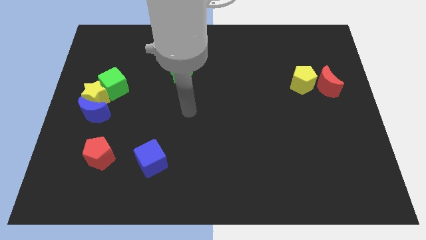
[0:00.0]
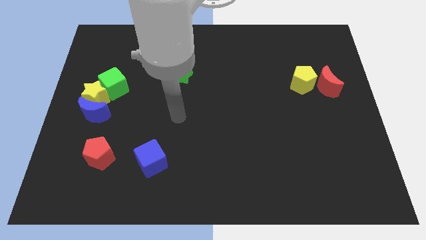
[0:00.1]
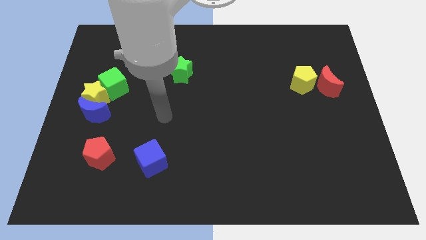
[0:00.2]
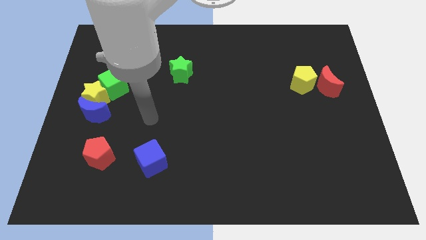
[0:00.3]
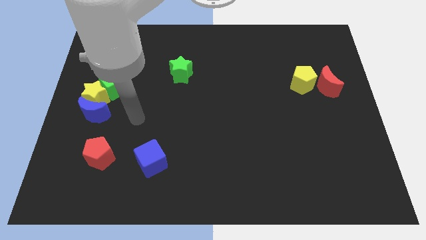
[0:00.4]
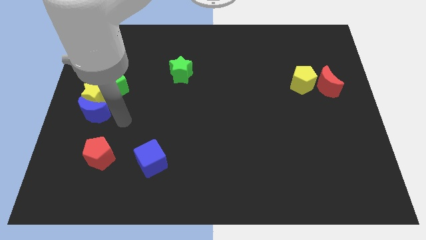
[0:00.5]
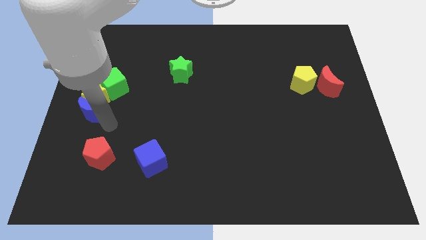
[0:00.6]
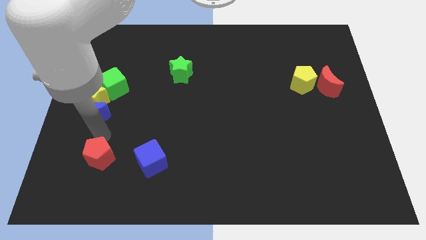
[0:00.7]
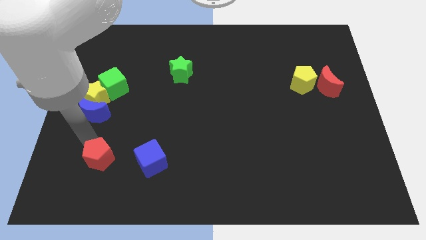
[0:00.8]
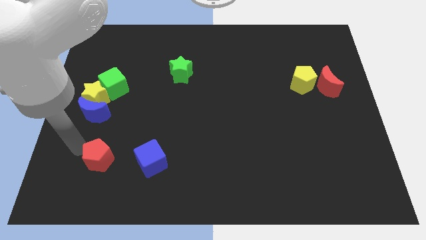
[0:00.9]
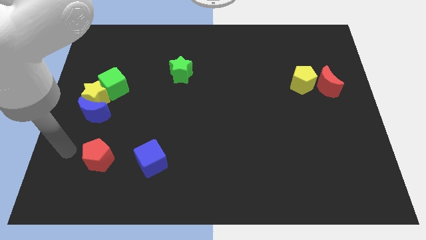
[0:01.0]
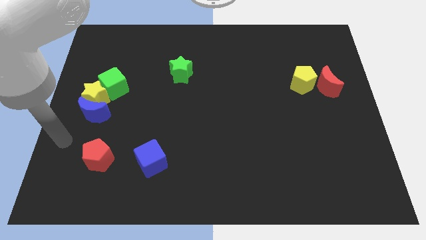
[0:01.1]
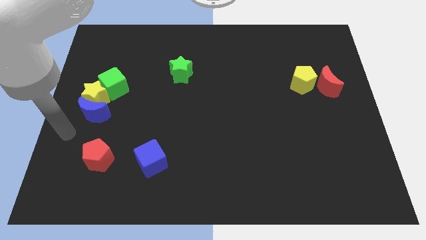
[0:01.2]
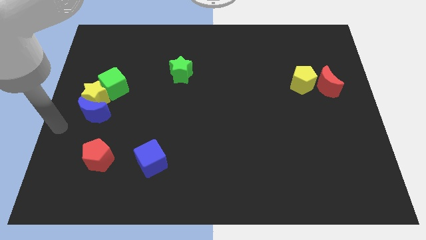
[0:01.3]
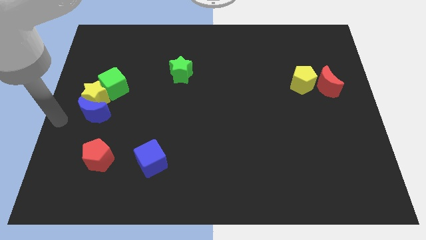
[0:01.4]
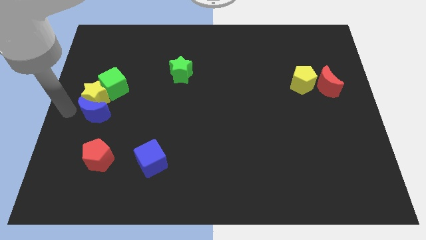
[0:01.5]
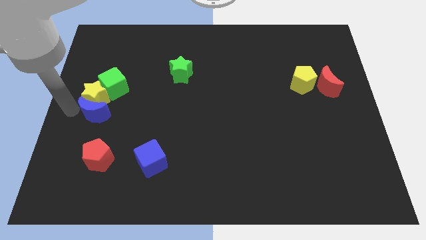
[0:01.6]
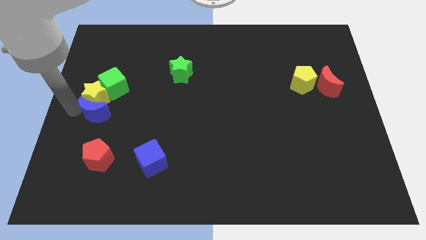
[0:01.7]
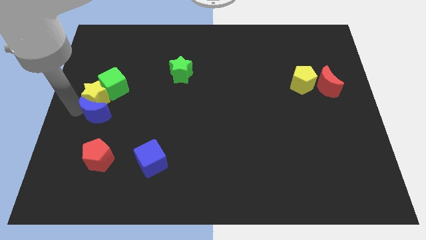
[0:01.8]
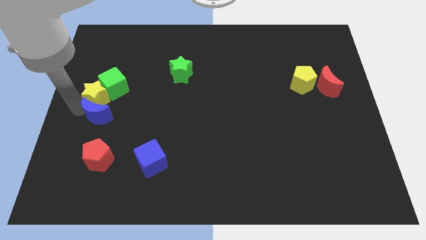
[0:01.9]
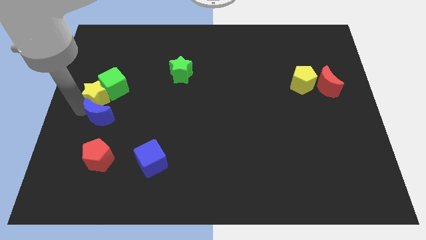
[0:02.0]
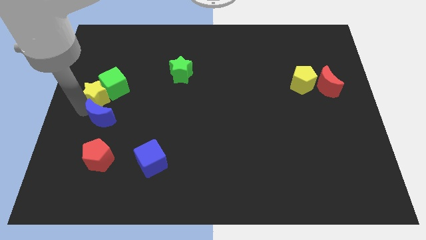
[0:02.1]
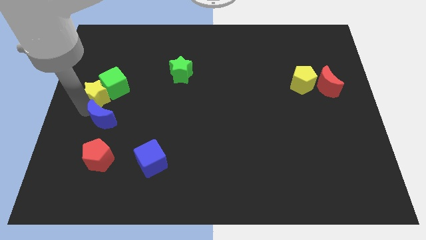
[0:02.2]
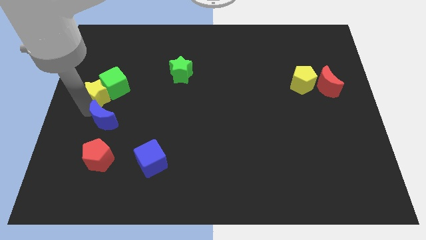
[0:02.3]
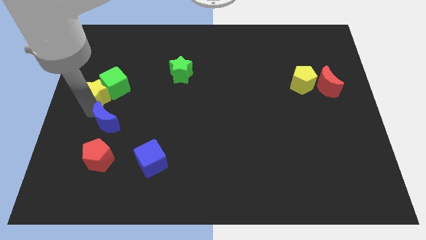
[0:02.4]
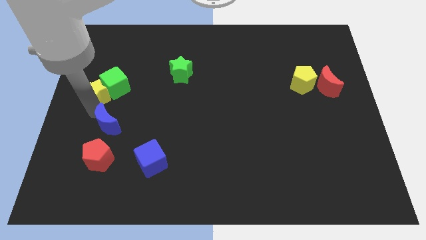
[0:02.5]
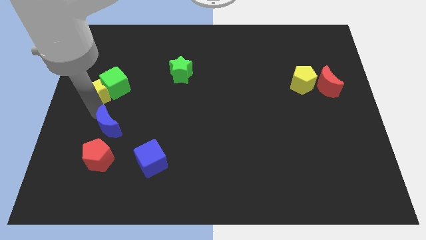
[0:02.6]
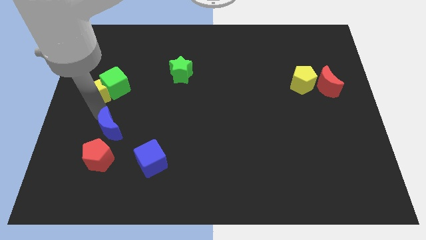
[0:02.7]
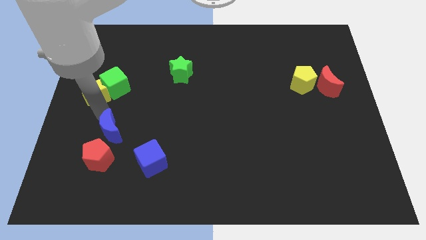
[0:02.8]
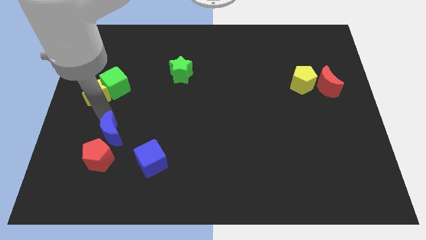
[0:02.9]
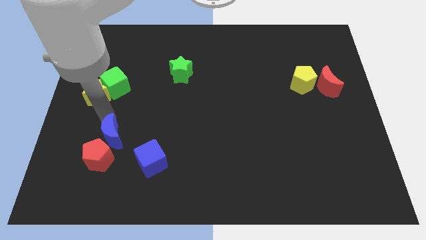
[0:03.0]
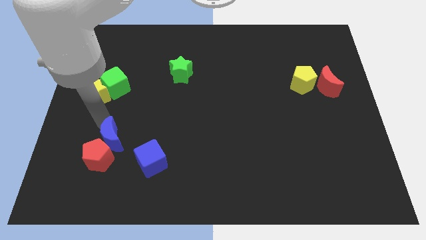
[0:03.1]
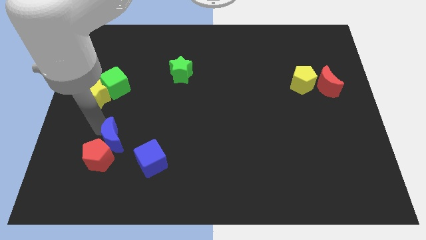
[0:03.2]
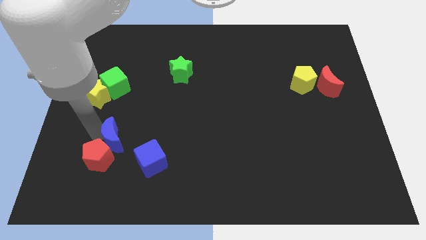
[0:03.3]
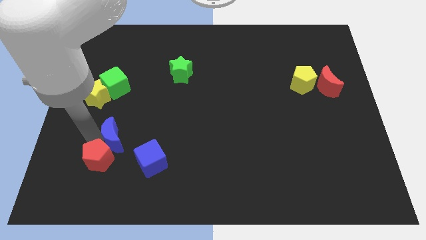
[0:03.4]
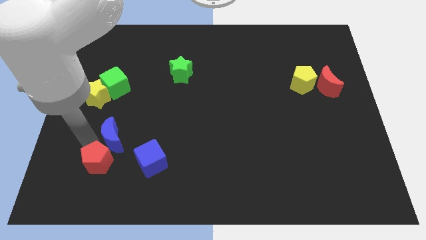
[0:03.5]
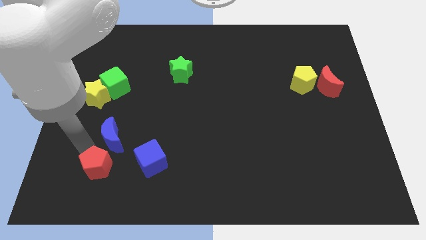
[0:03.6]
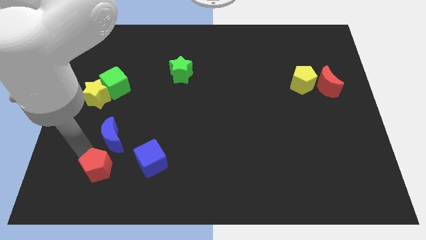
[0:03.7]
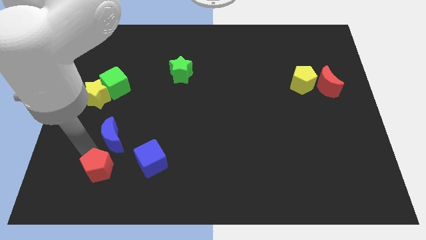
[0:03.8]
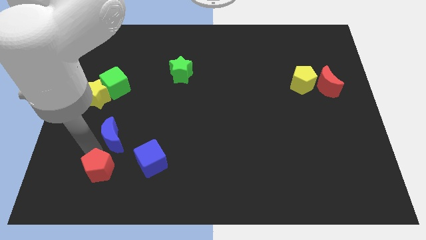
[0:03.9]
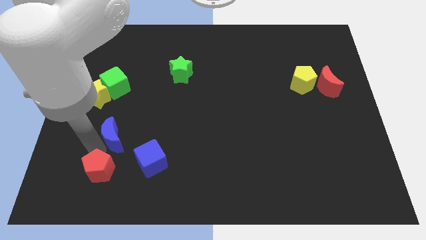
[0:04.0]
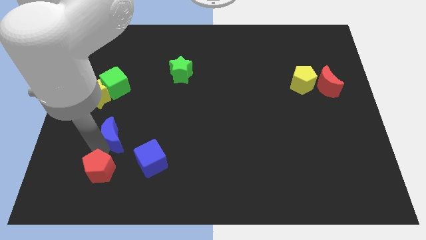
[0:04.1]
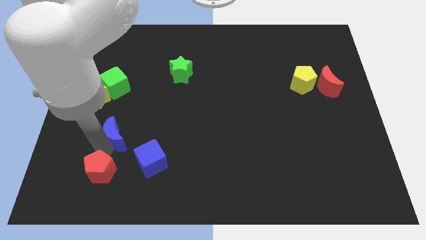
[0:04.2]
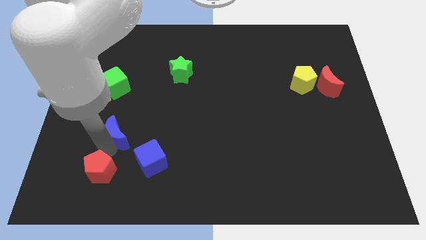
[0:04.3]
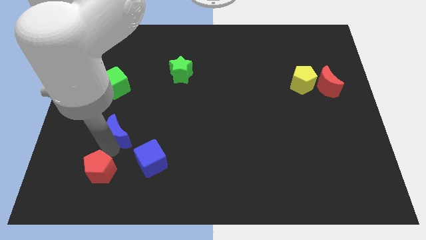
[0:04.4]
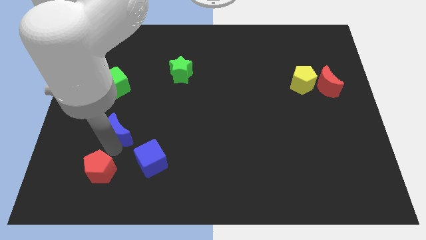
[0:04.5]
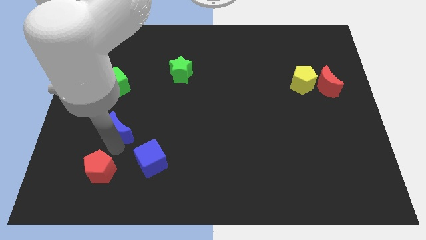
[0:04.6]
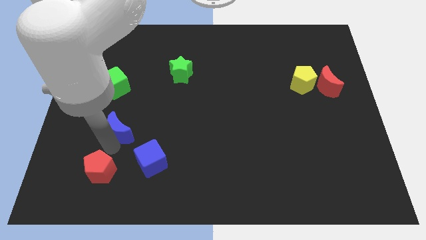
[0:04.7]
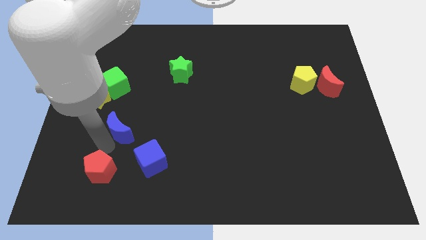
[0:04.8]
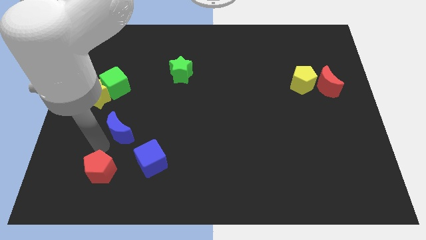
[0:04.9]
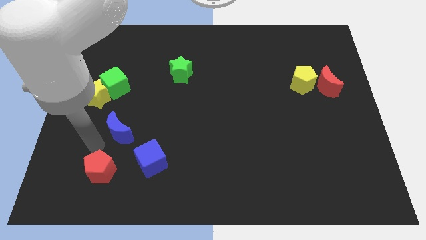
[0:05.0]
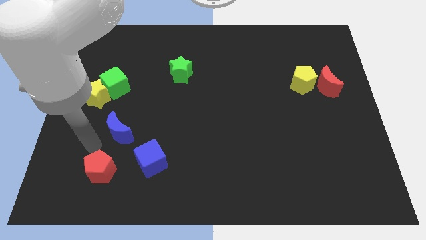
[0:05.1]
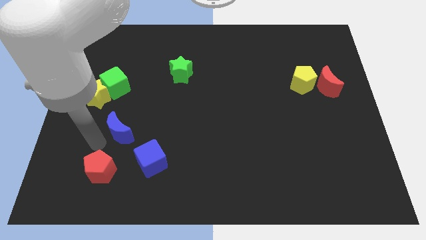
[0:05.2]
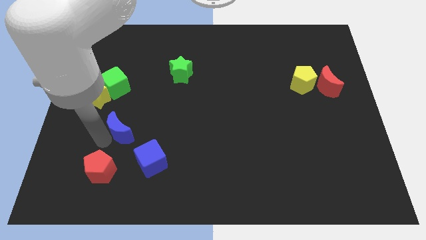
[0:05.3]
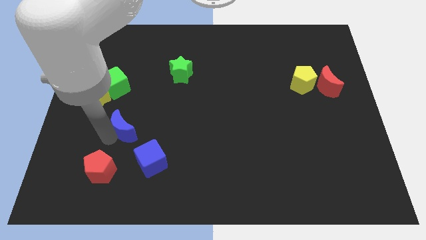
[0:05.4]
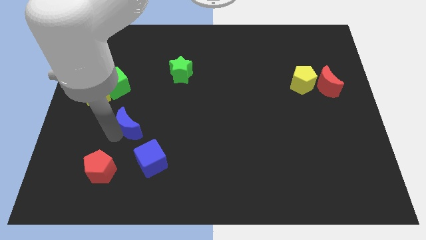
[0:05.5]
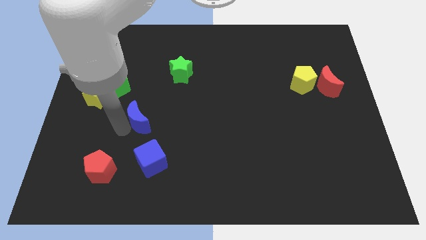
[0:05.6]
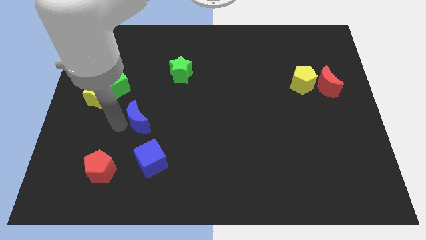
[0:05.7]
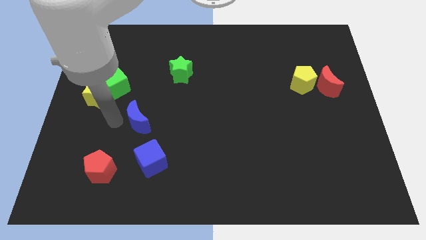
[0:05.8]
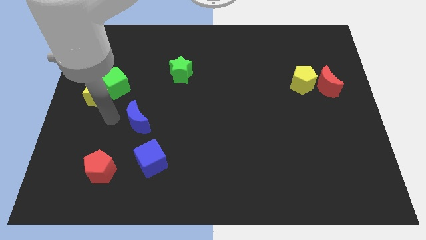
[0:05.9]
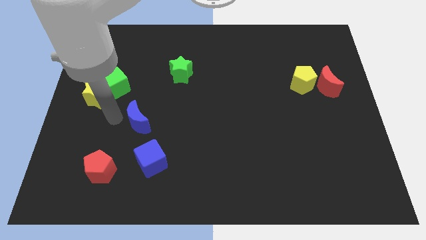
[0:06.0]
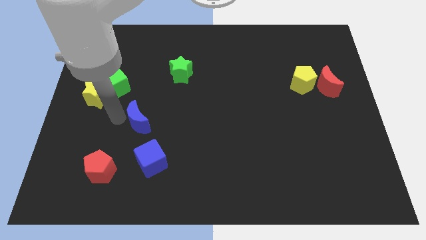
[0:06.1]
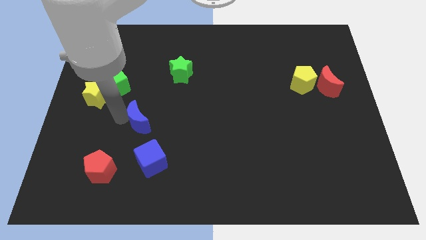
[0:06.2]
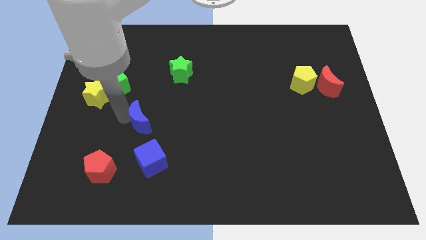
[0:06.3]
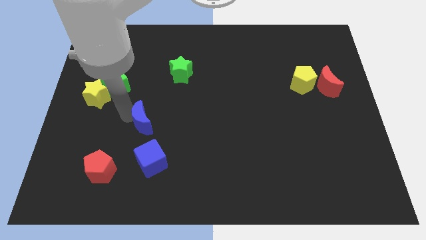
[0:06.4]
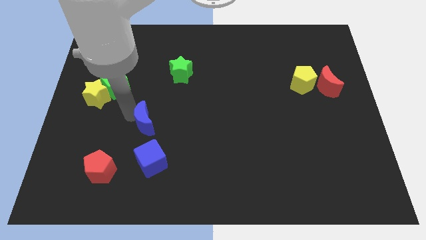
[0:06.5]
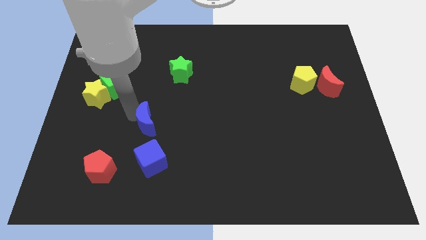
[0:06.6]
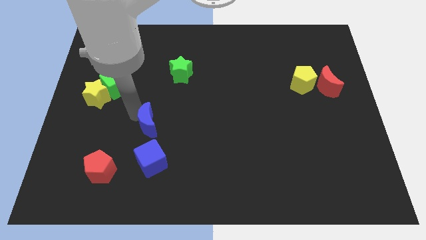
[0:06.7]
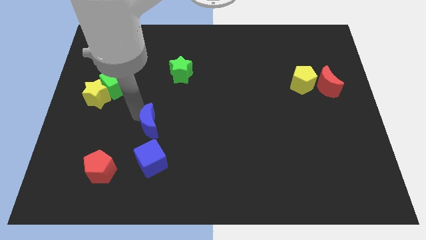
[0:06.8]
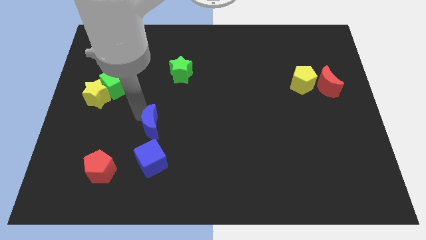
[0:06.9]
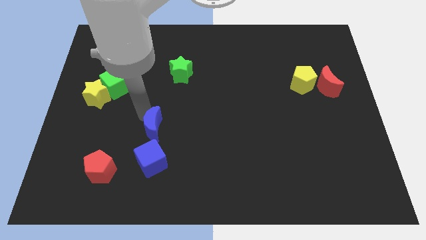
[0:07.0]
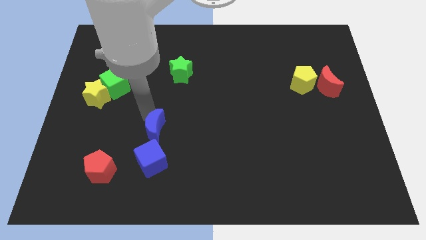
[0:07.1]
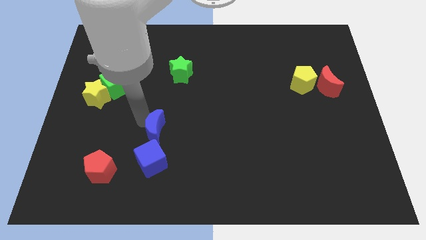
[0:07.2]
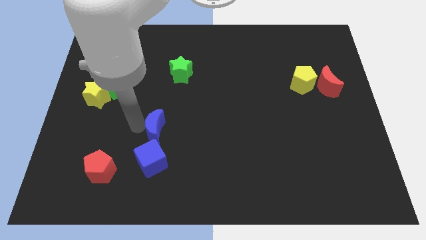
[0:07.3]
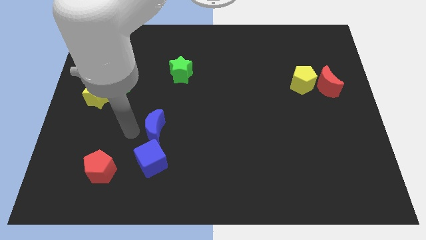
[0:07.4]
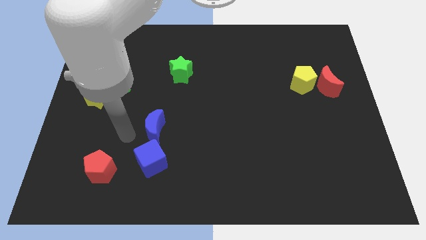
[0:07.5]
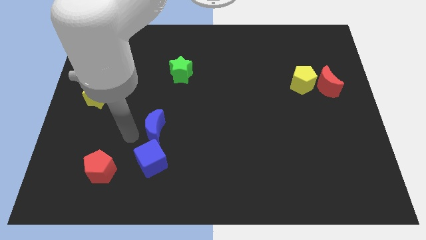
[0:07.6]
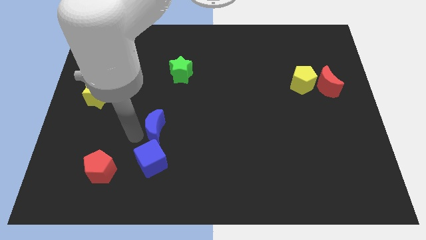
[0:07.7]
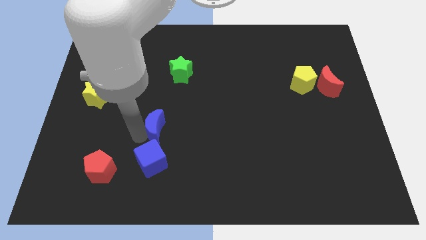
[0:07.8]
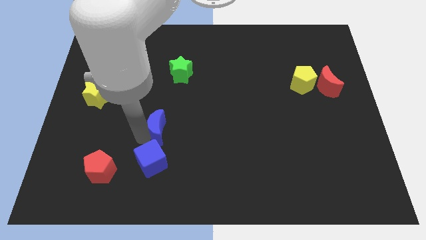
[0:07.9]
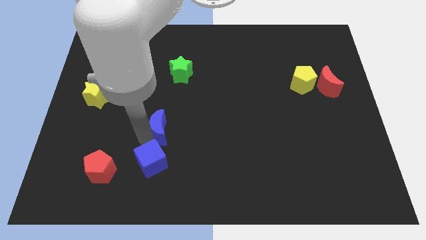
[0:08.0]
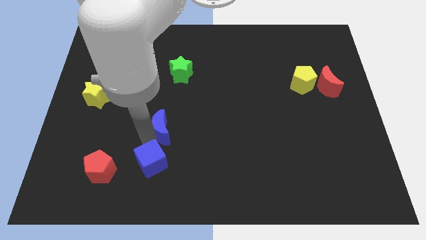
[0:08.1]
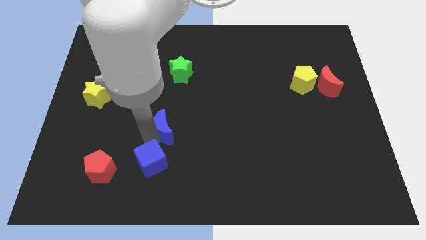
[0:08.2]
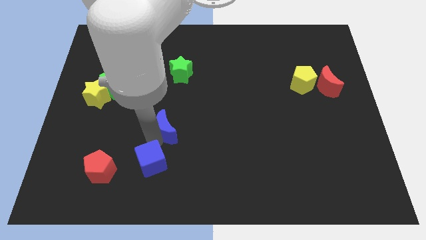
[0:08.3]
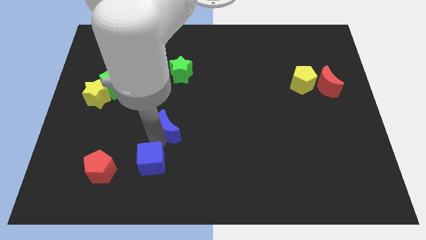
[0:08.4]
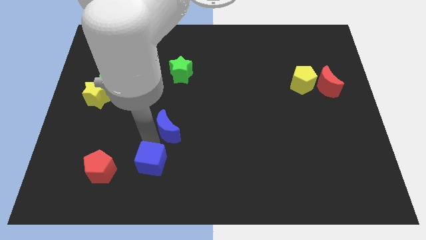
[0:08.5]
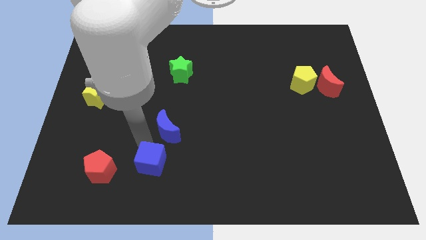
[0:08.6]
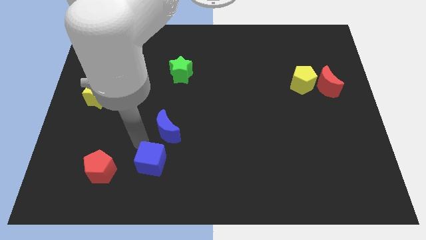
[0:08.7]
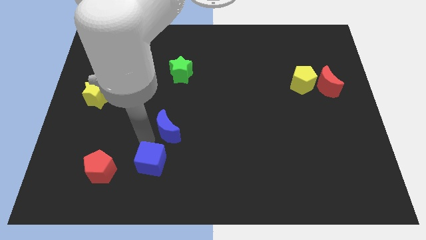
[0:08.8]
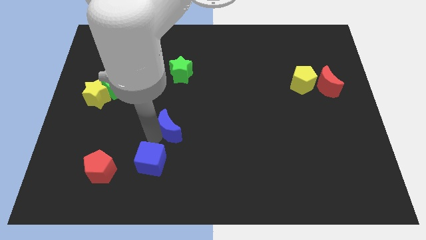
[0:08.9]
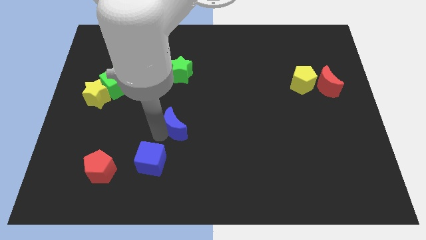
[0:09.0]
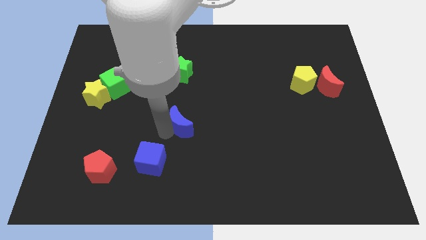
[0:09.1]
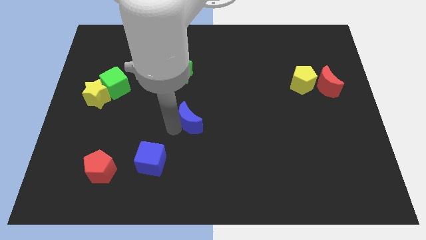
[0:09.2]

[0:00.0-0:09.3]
push the blue moon right
